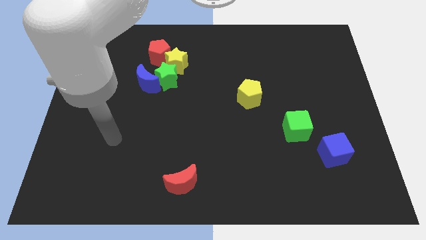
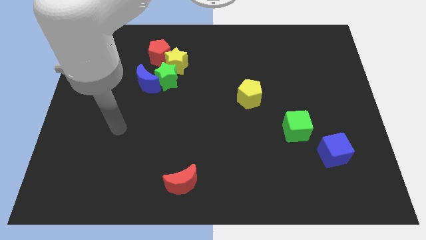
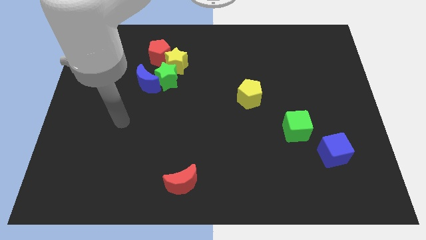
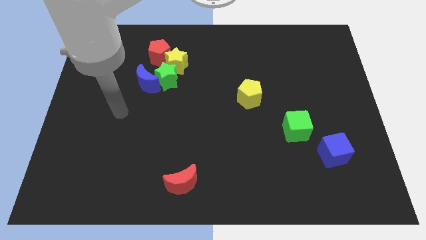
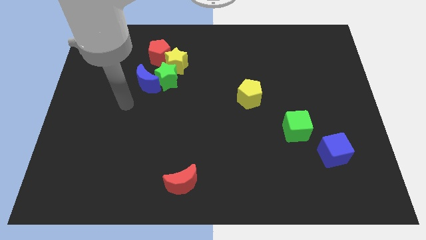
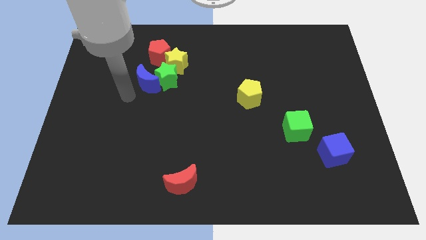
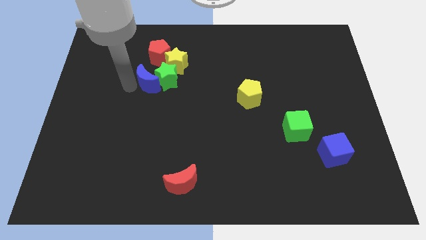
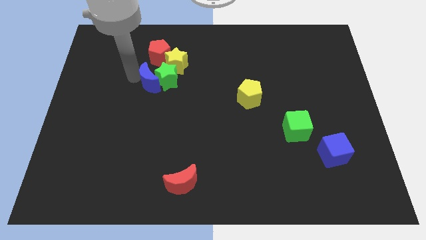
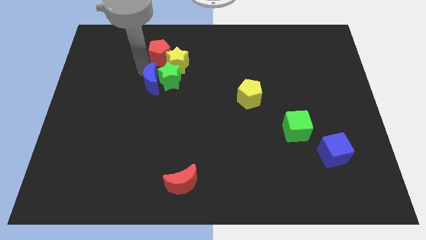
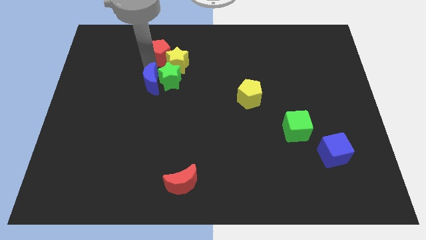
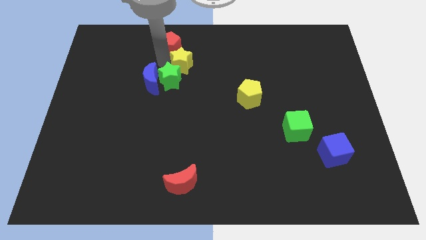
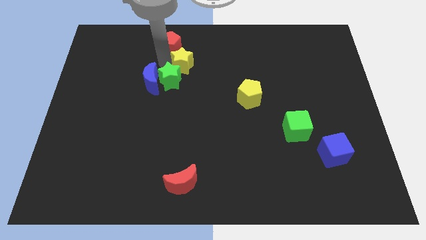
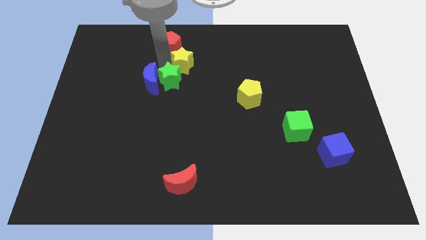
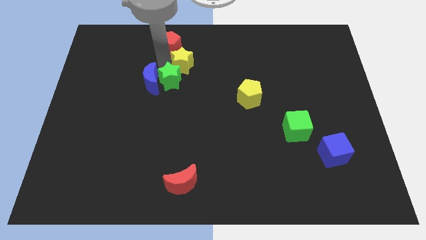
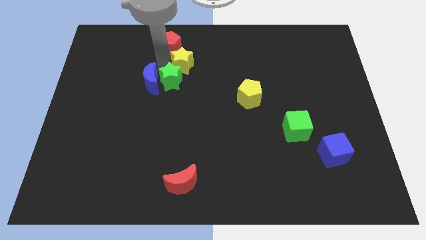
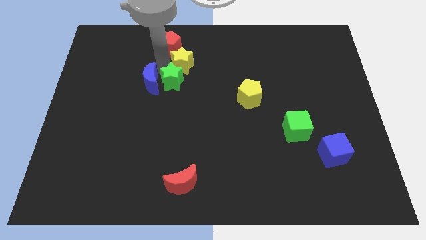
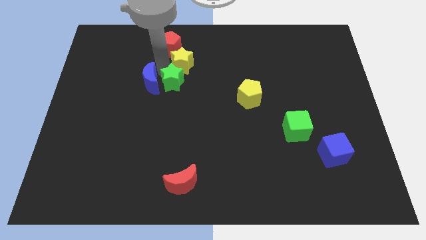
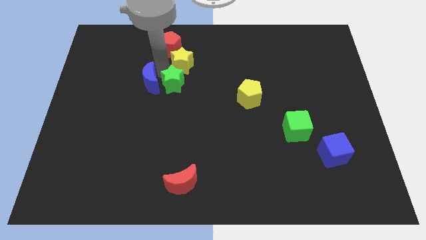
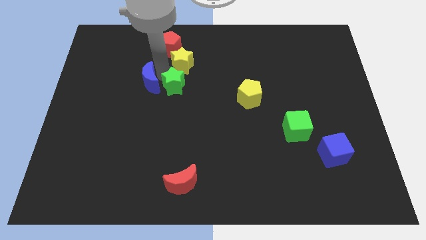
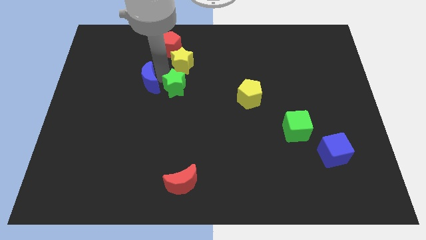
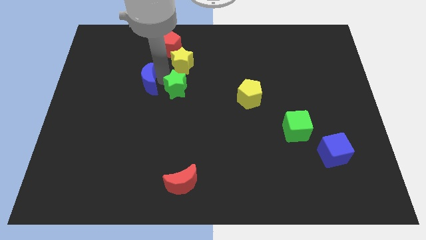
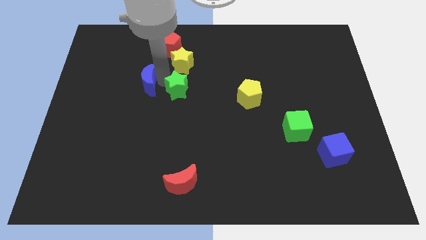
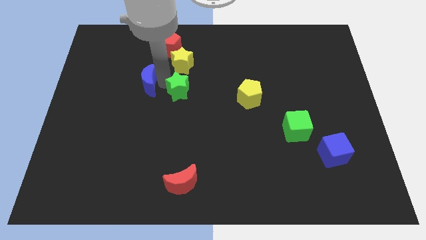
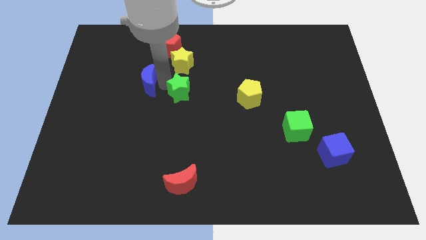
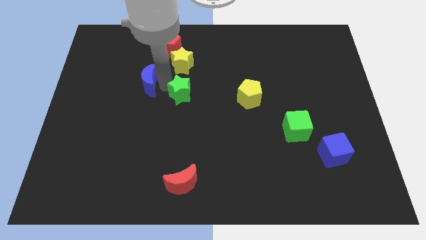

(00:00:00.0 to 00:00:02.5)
move the green star away from the group

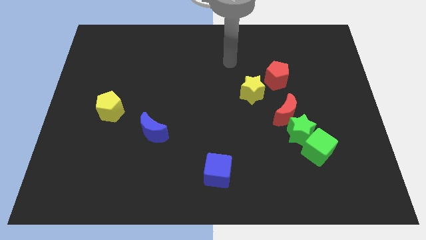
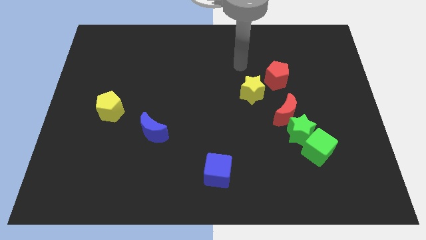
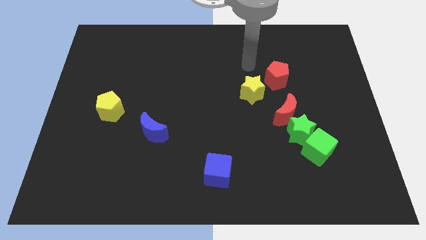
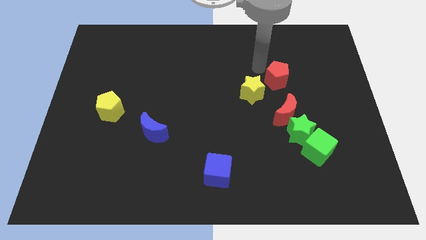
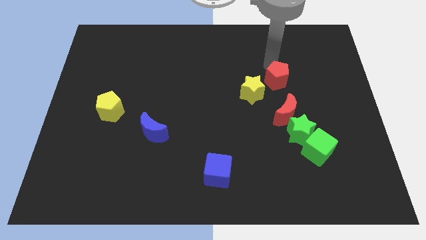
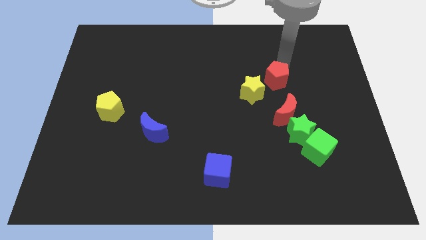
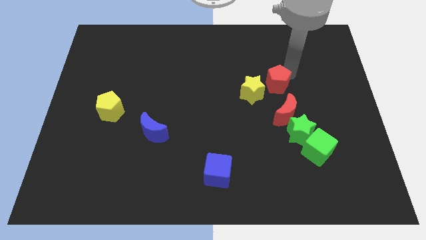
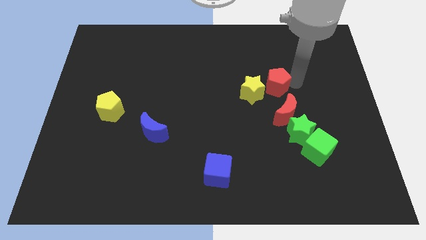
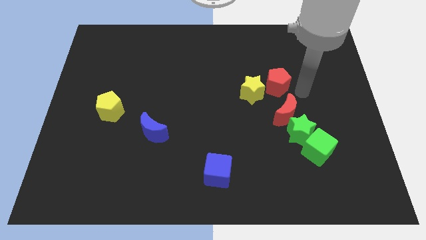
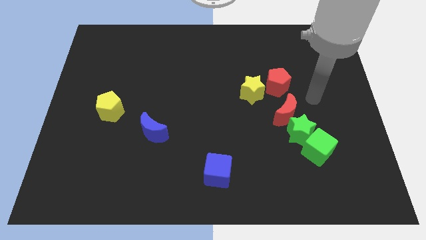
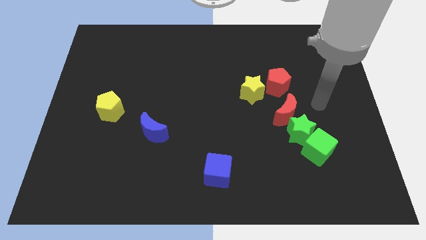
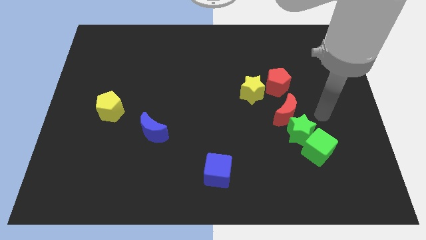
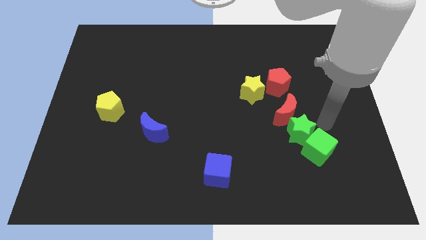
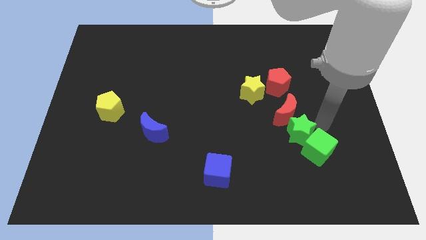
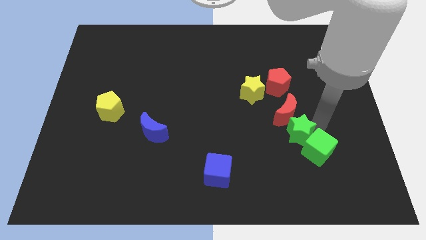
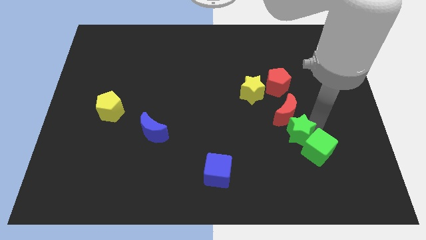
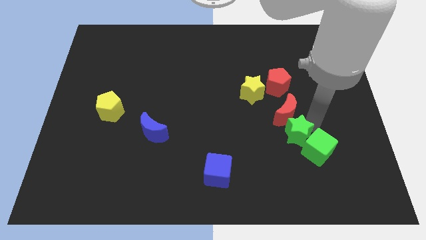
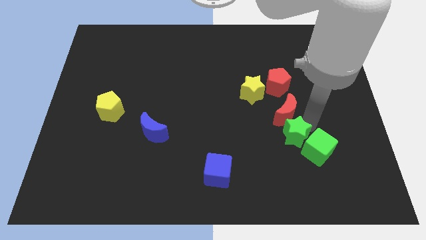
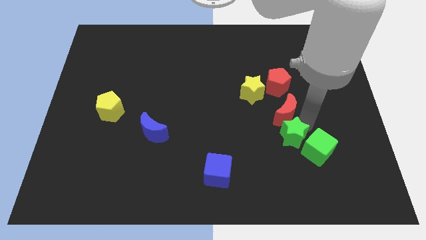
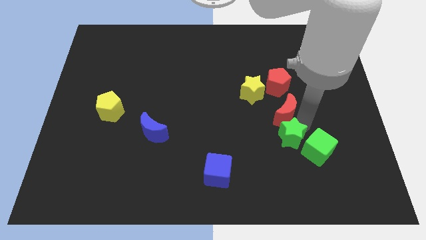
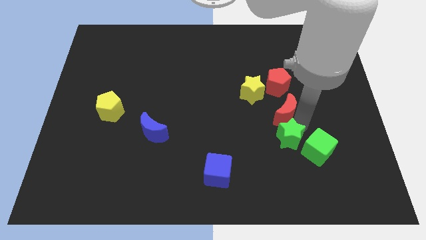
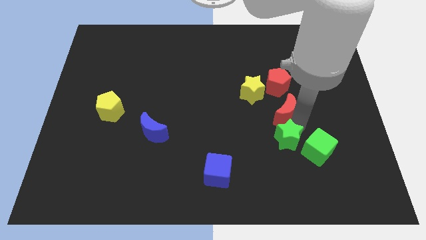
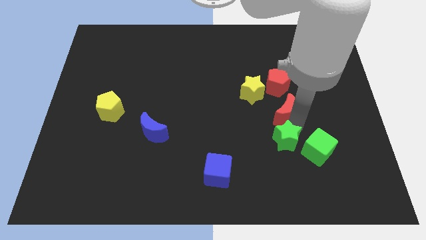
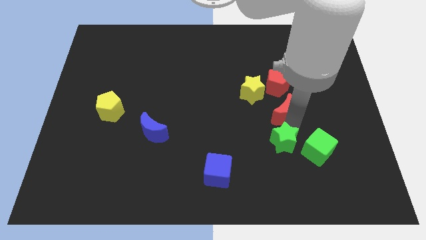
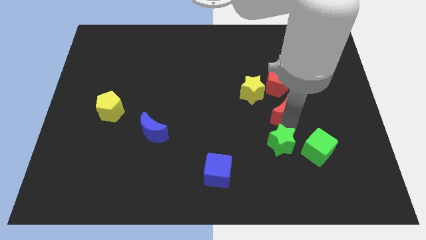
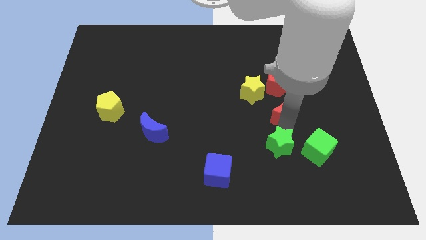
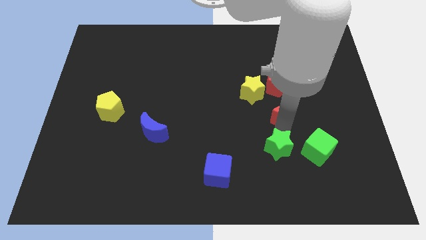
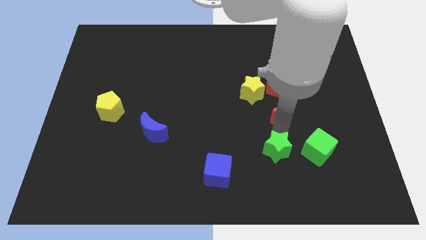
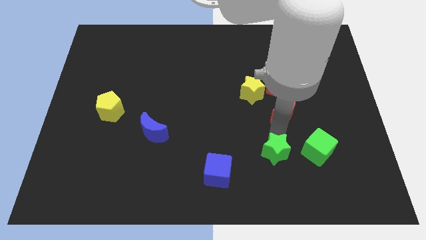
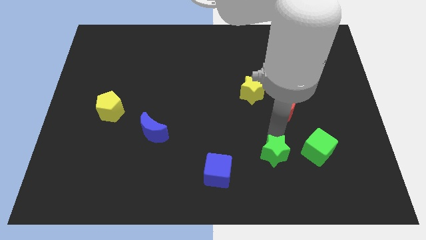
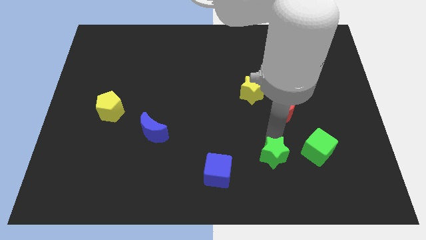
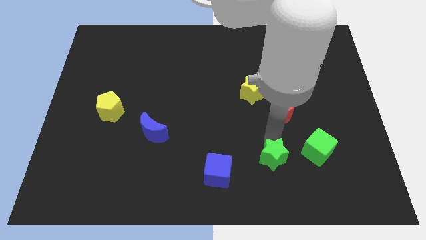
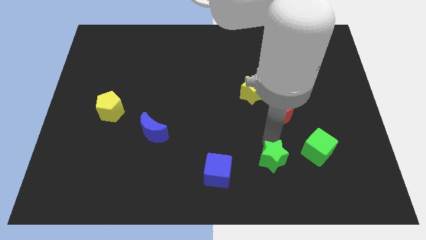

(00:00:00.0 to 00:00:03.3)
move the green star away from the red moon and green cube

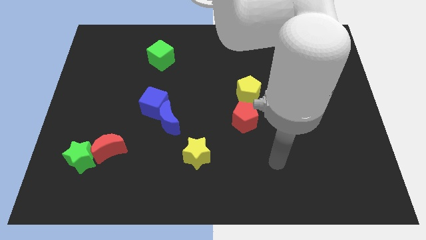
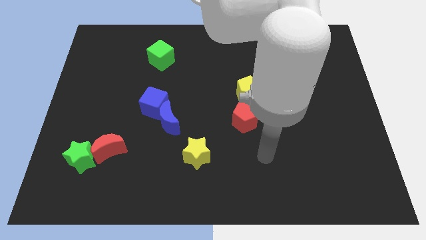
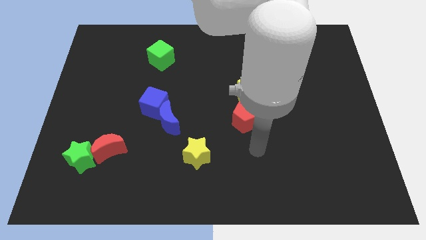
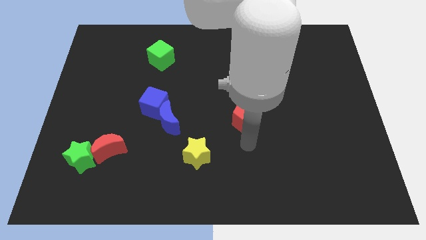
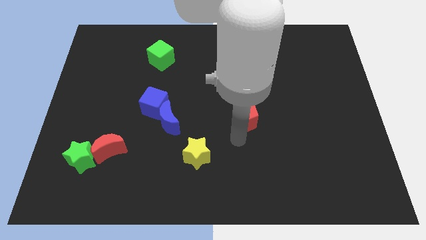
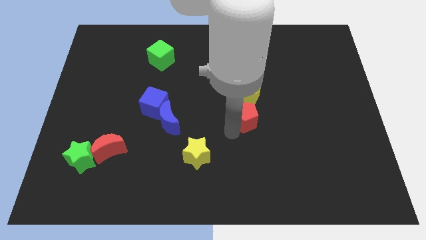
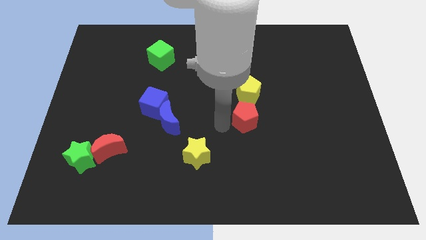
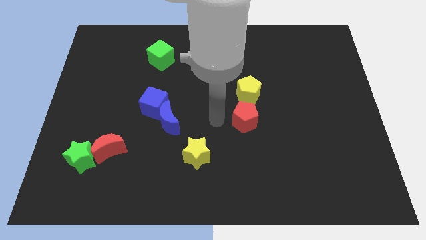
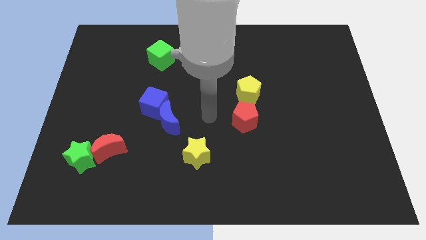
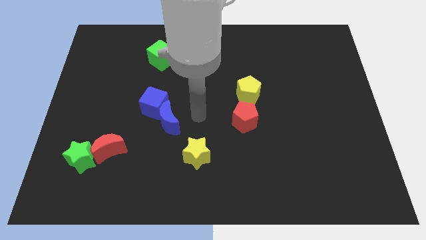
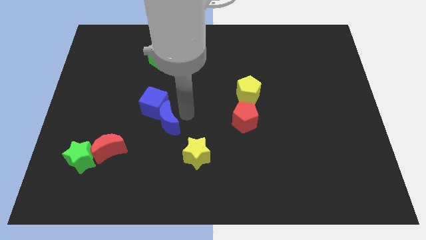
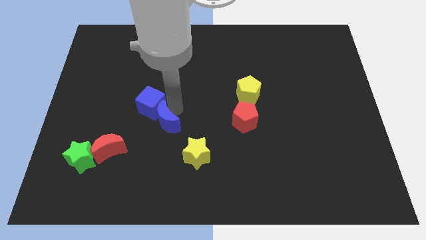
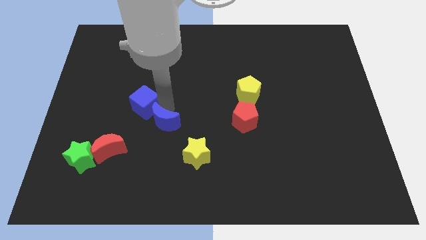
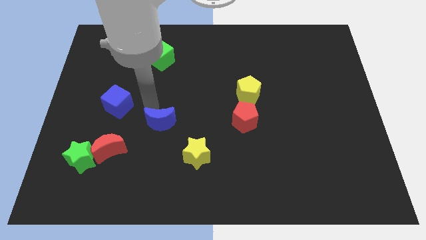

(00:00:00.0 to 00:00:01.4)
pull the blue moon apart from the blue cube

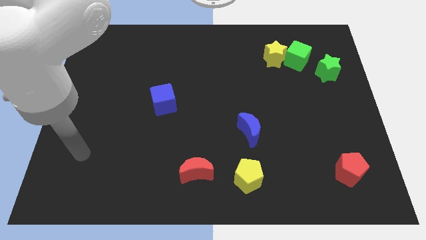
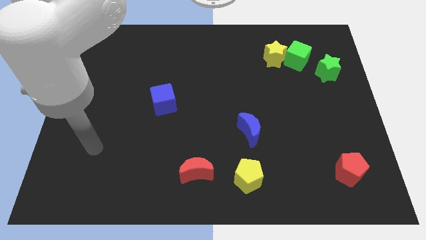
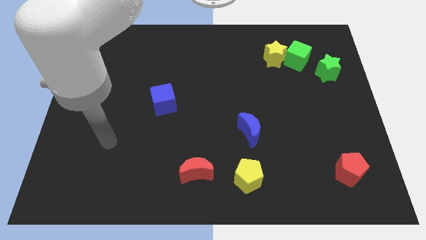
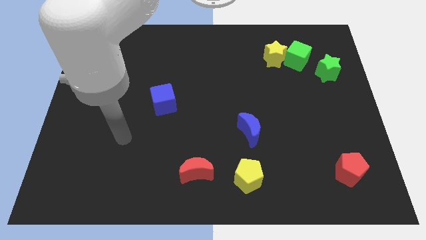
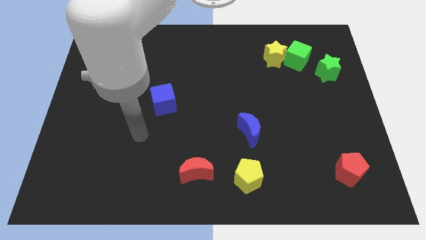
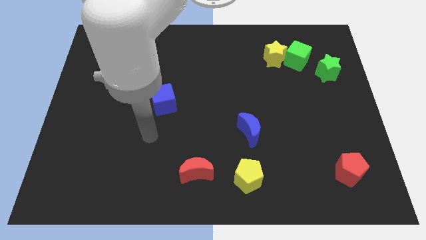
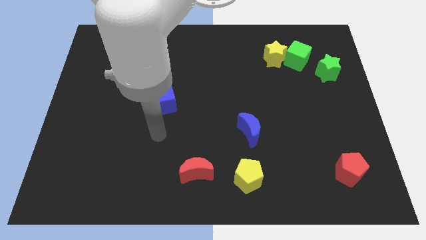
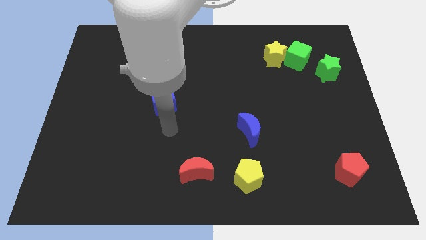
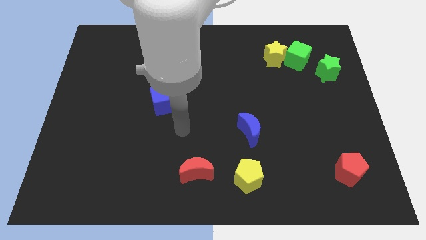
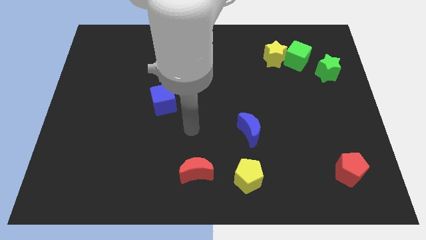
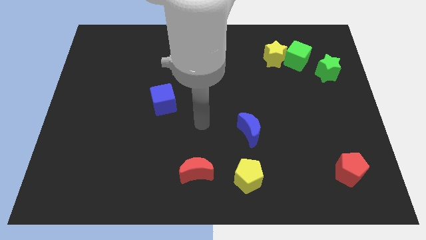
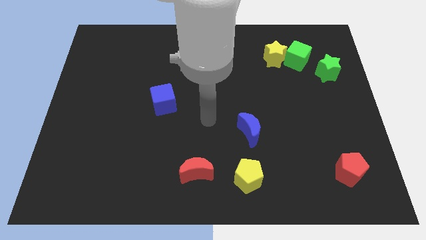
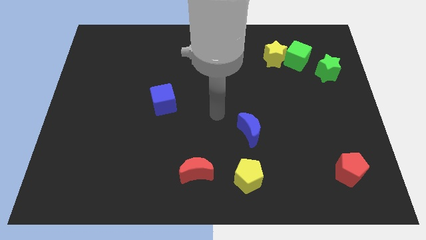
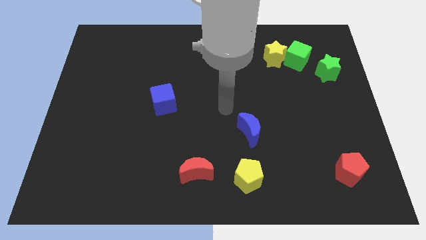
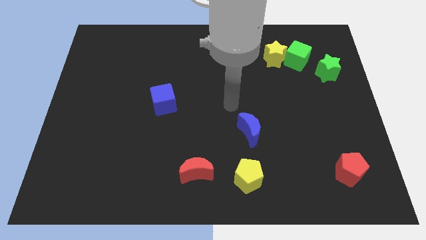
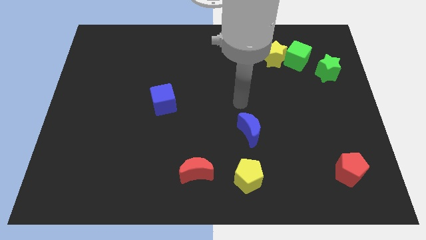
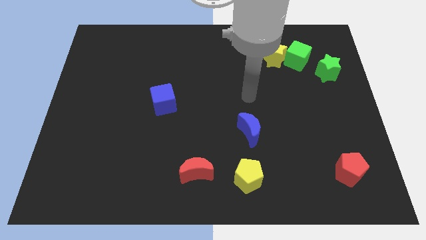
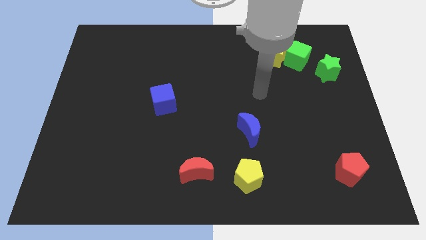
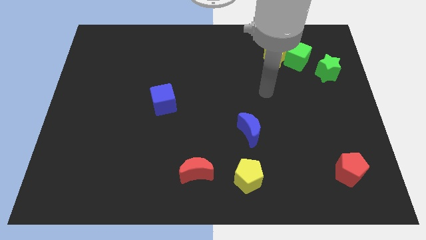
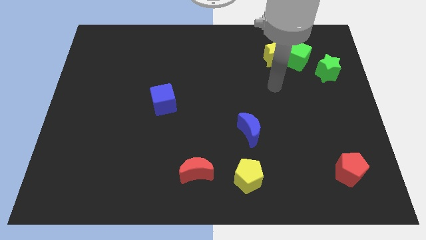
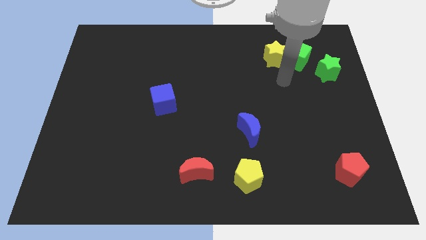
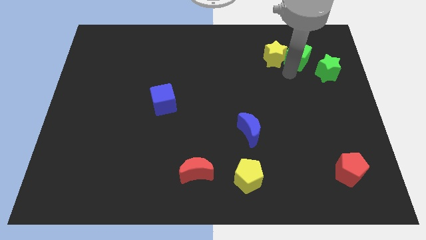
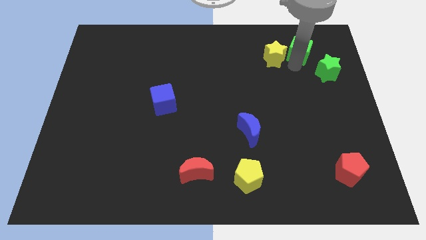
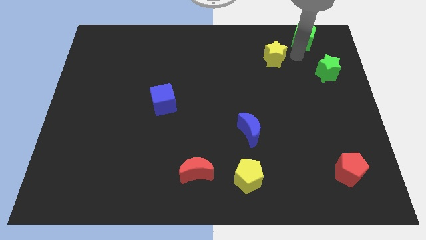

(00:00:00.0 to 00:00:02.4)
pull the yellow star apart from the green cube
